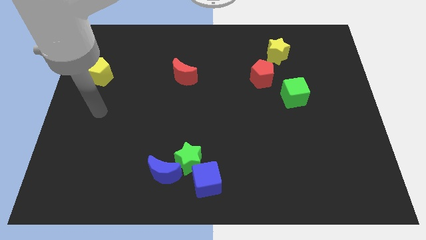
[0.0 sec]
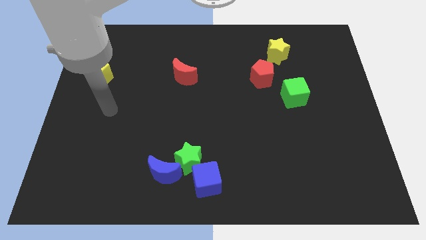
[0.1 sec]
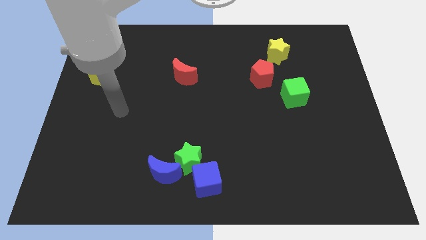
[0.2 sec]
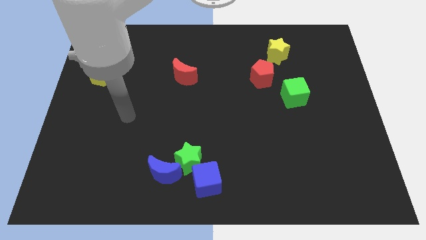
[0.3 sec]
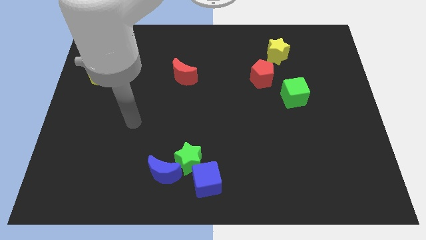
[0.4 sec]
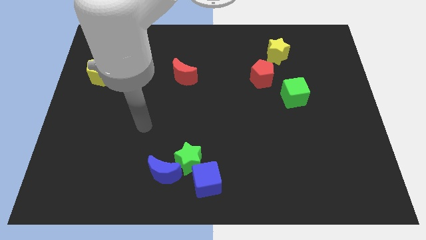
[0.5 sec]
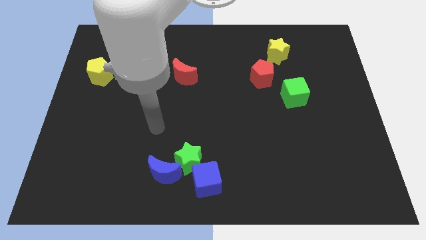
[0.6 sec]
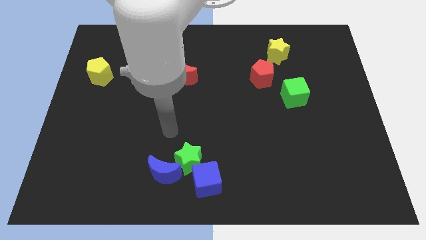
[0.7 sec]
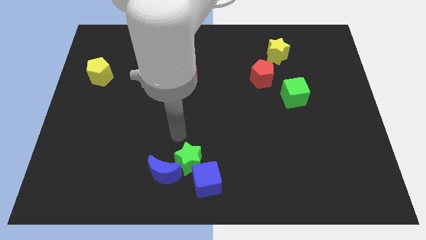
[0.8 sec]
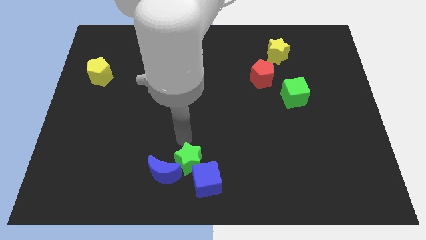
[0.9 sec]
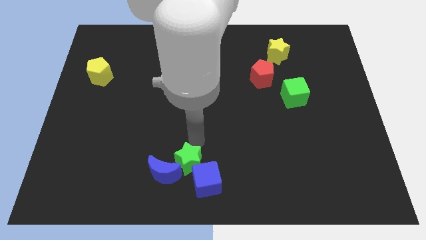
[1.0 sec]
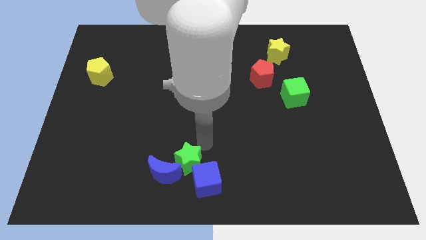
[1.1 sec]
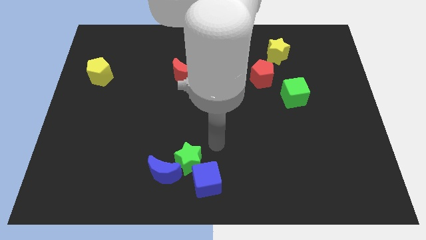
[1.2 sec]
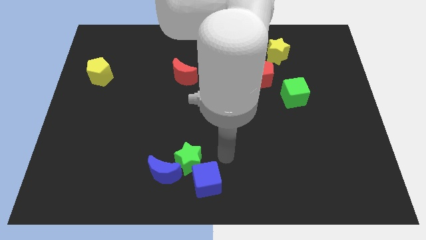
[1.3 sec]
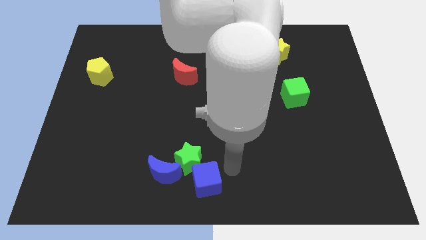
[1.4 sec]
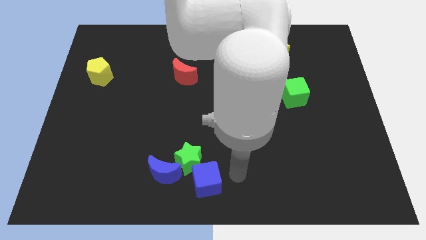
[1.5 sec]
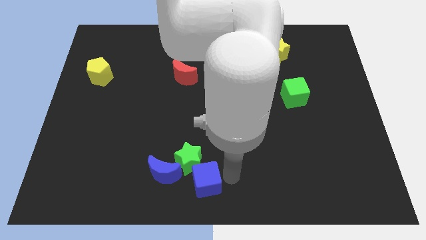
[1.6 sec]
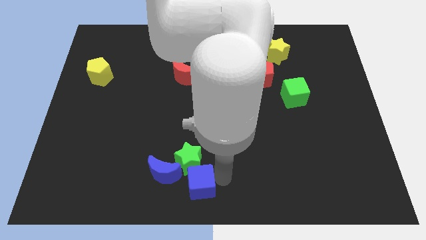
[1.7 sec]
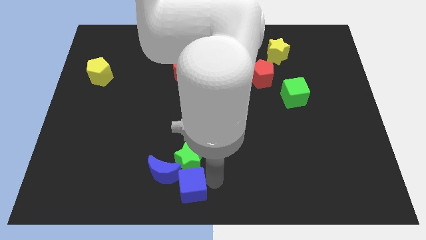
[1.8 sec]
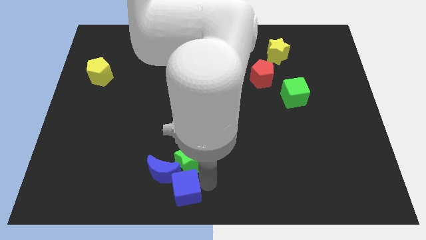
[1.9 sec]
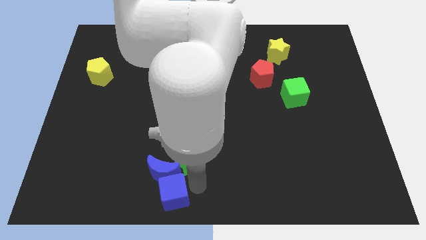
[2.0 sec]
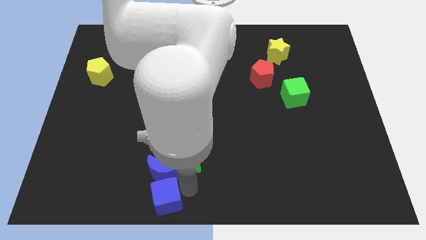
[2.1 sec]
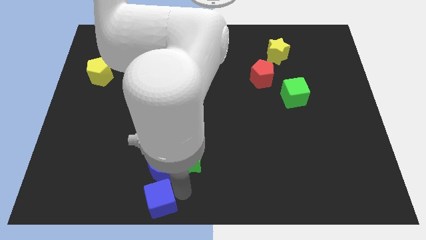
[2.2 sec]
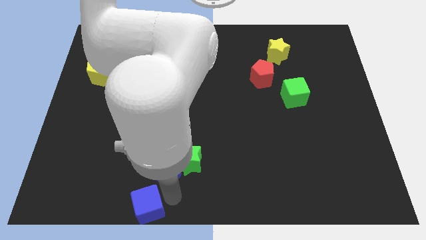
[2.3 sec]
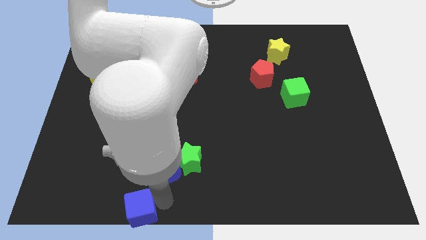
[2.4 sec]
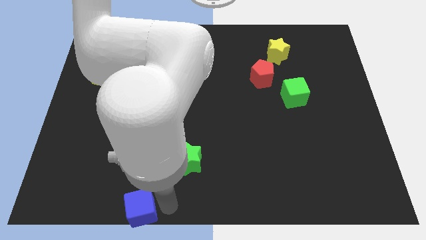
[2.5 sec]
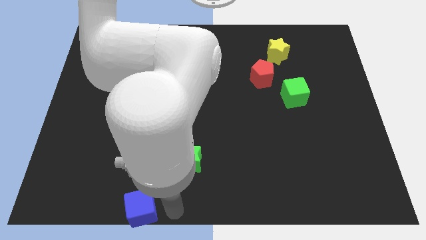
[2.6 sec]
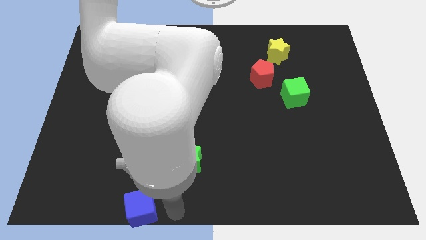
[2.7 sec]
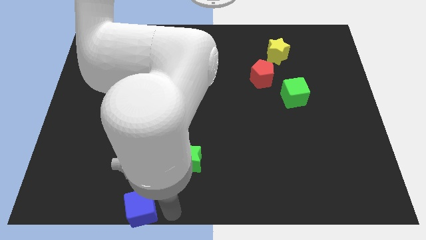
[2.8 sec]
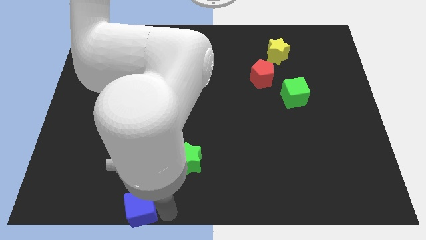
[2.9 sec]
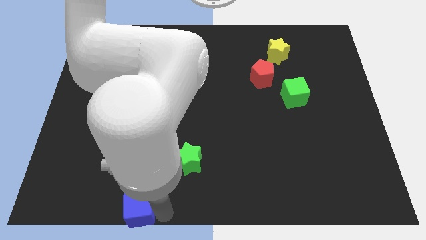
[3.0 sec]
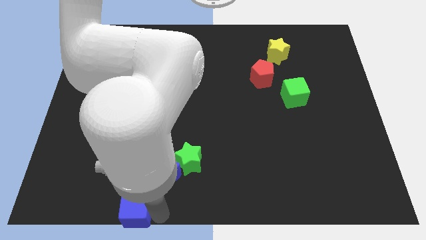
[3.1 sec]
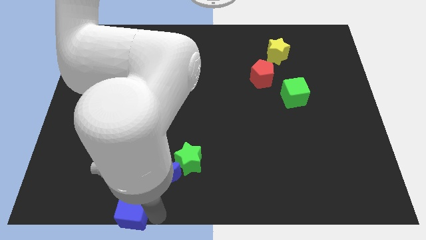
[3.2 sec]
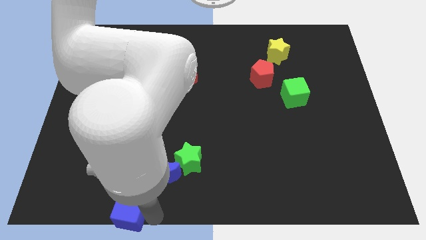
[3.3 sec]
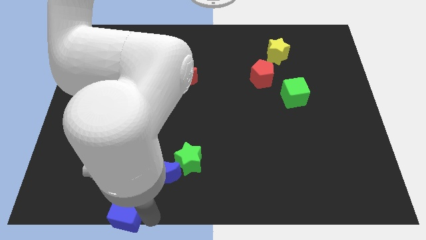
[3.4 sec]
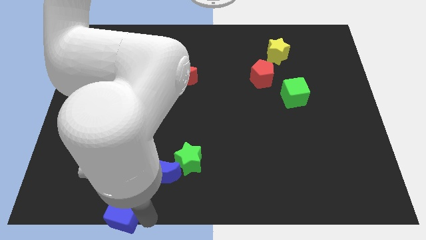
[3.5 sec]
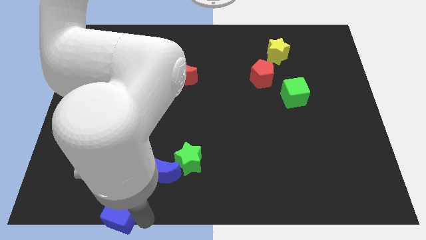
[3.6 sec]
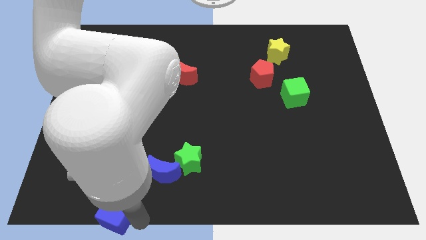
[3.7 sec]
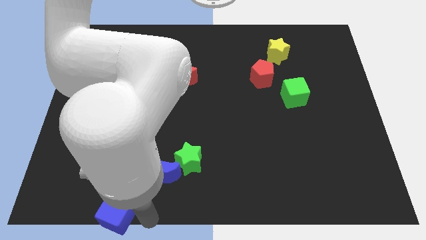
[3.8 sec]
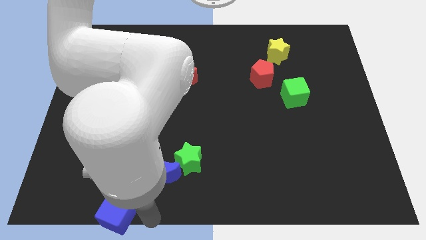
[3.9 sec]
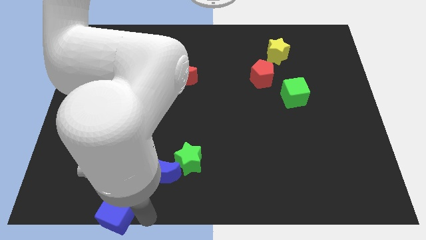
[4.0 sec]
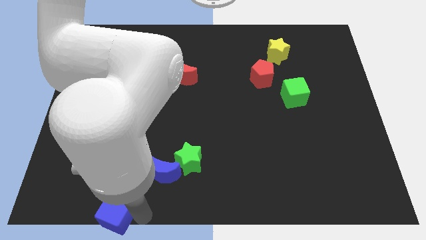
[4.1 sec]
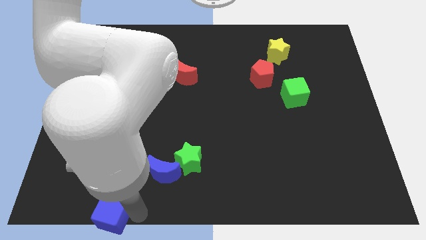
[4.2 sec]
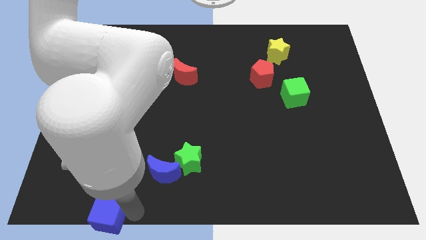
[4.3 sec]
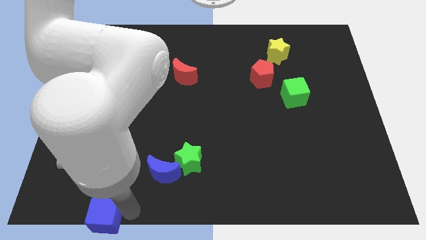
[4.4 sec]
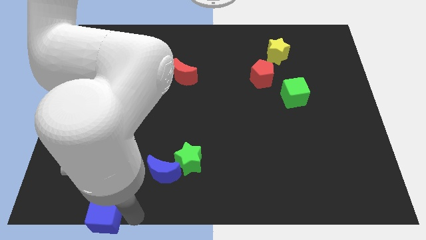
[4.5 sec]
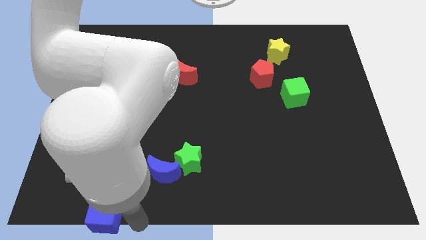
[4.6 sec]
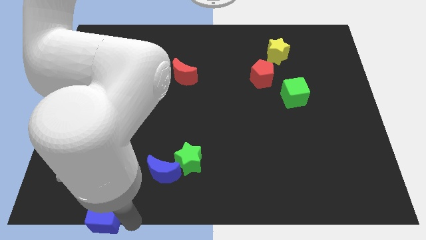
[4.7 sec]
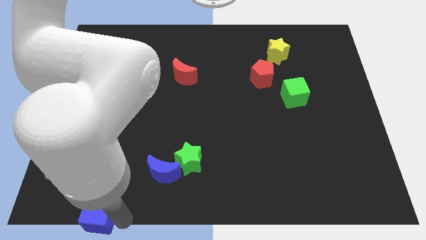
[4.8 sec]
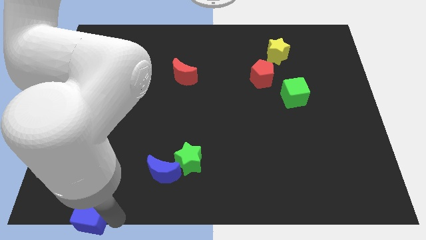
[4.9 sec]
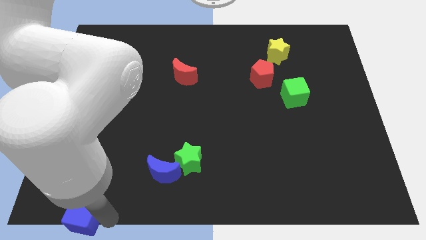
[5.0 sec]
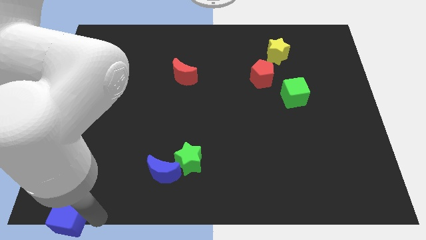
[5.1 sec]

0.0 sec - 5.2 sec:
slide the blue cube to the bottom left of the board

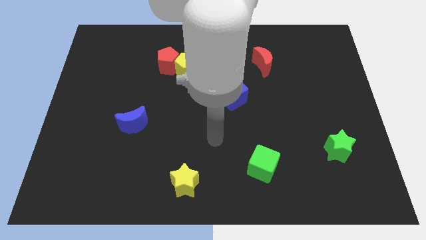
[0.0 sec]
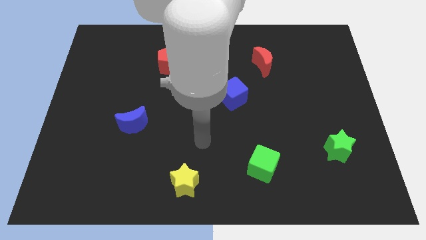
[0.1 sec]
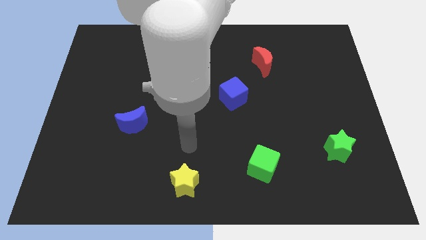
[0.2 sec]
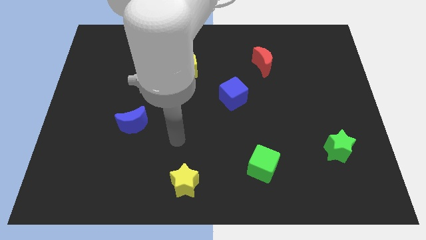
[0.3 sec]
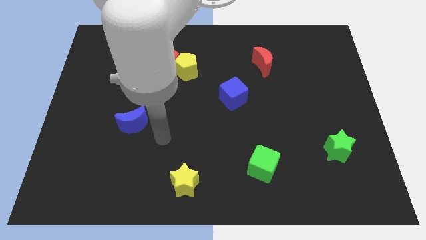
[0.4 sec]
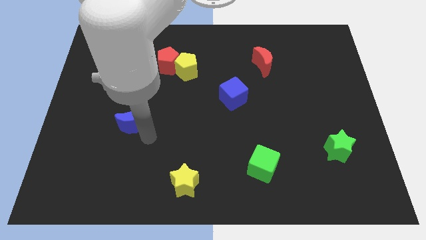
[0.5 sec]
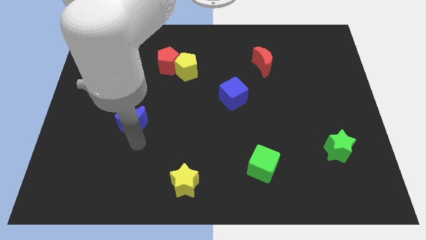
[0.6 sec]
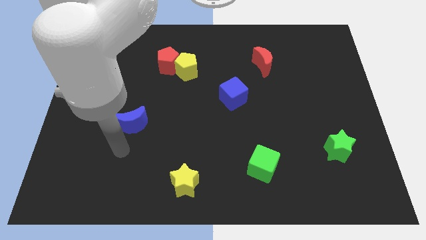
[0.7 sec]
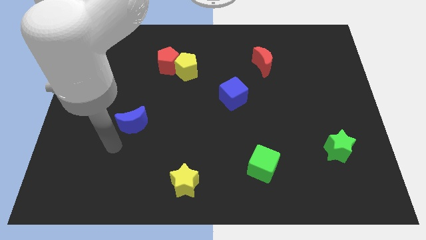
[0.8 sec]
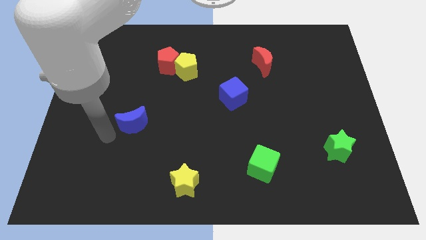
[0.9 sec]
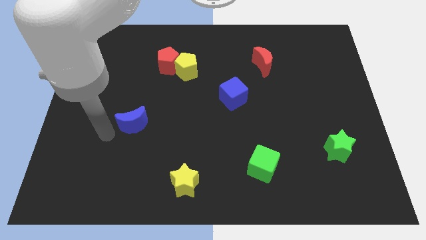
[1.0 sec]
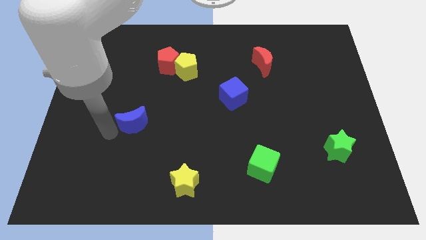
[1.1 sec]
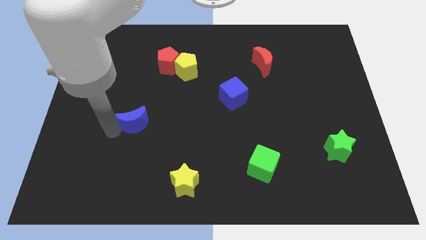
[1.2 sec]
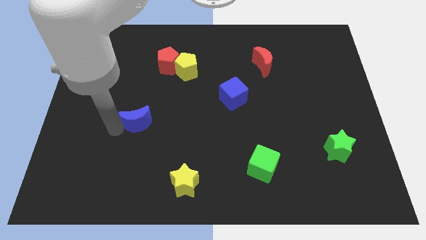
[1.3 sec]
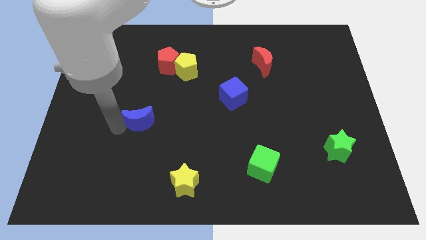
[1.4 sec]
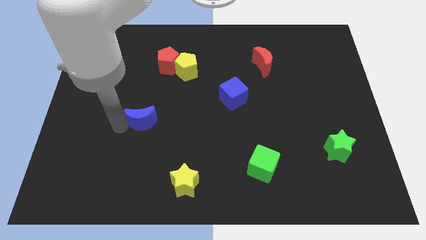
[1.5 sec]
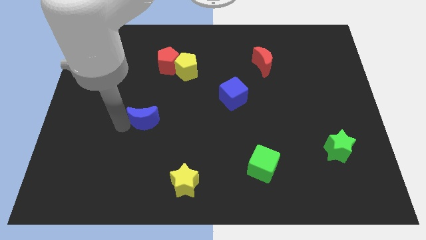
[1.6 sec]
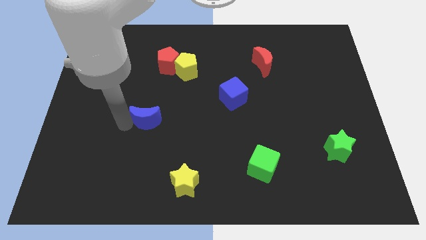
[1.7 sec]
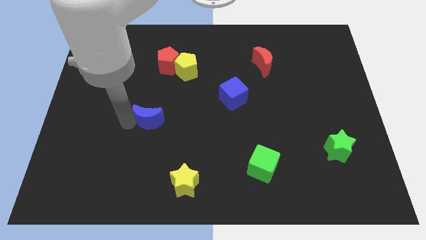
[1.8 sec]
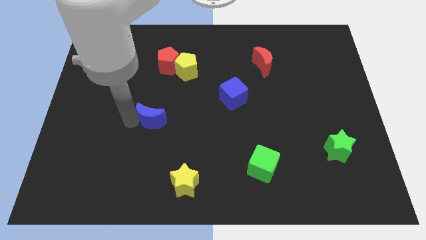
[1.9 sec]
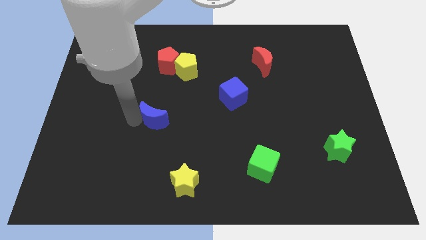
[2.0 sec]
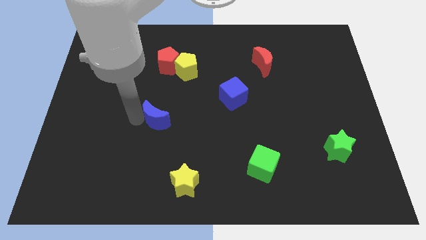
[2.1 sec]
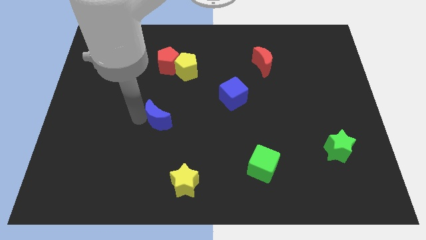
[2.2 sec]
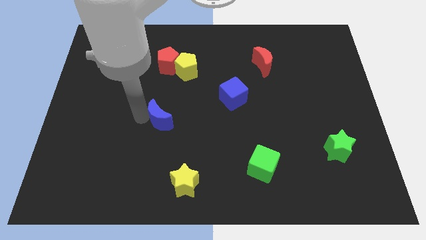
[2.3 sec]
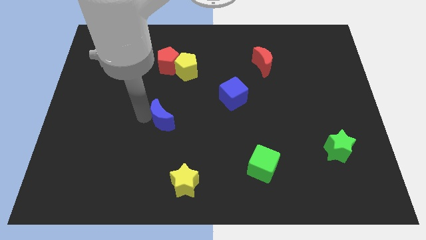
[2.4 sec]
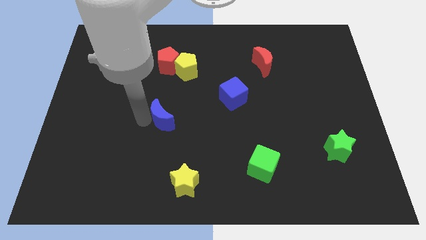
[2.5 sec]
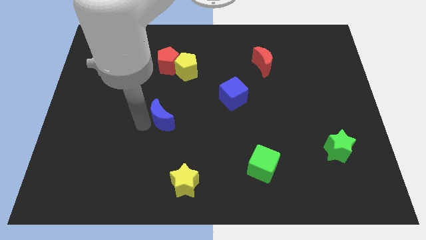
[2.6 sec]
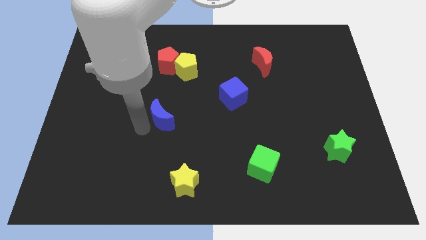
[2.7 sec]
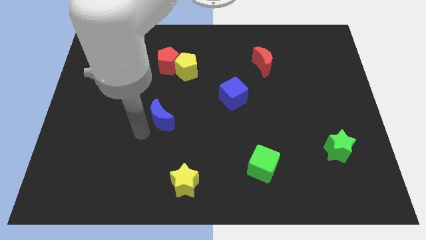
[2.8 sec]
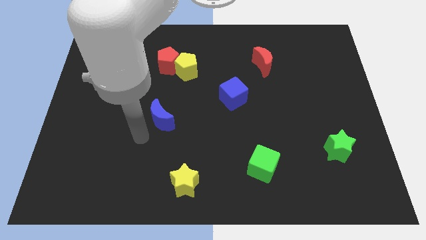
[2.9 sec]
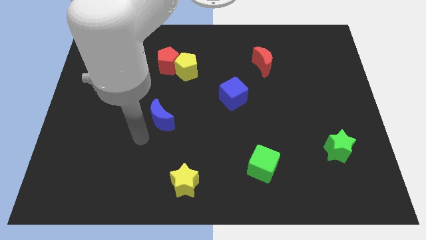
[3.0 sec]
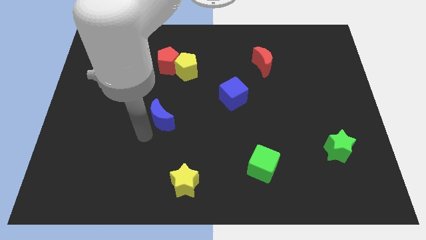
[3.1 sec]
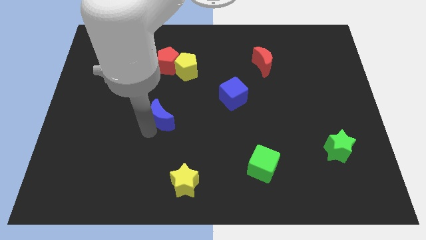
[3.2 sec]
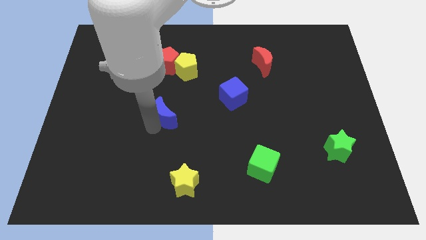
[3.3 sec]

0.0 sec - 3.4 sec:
slide the blue moon to the middle of the board
